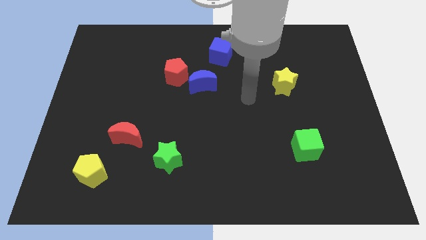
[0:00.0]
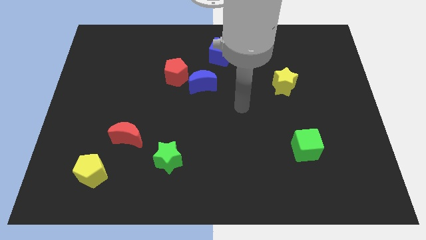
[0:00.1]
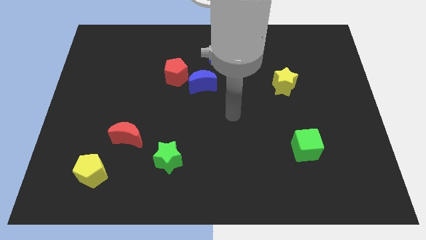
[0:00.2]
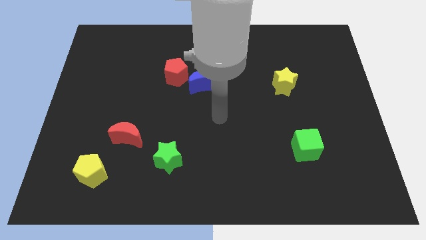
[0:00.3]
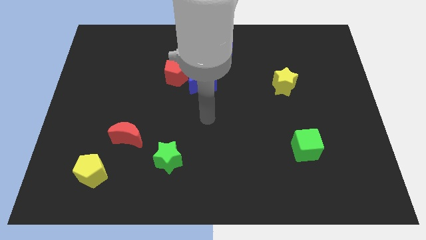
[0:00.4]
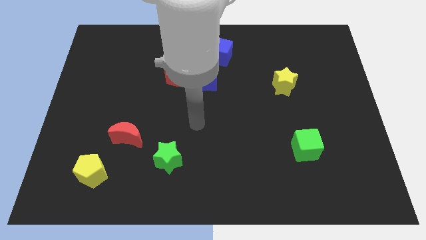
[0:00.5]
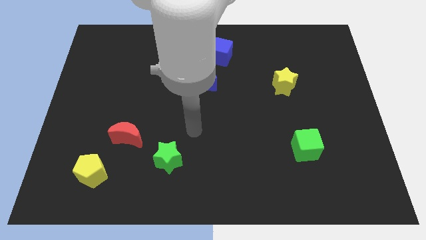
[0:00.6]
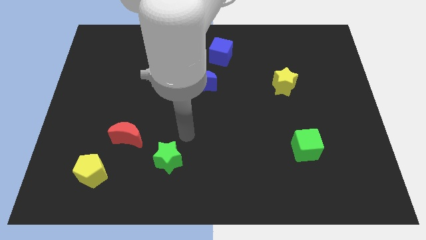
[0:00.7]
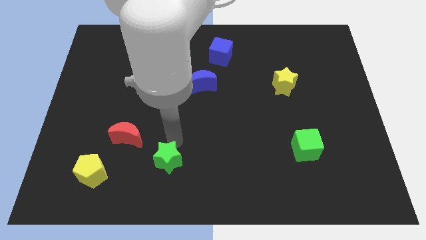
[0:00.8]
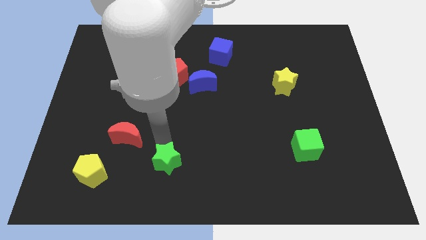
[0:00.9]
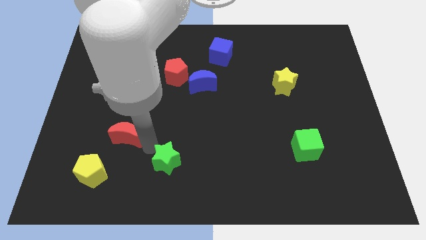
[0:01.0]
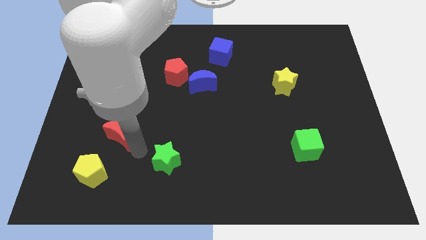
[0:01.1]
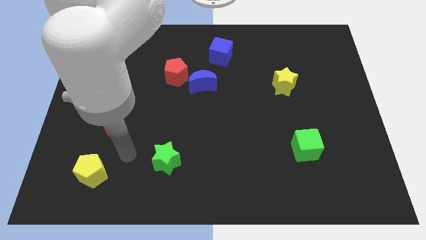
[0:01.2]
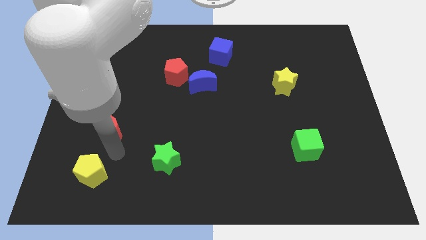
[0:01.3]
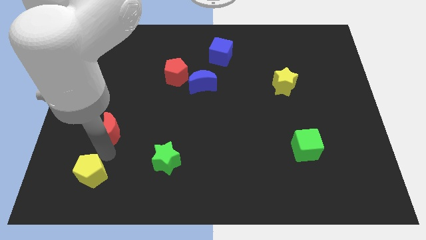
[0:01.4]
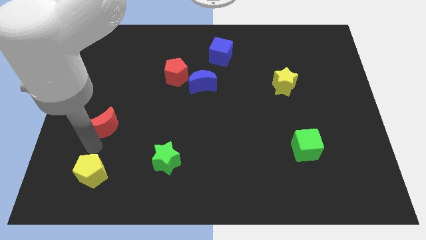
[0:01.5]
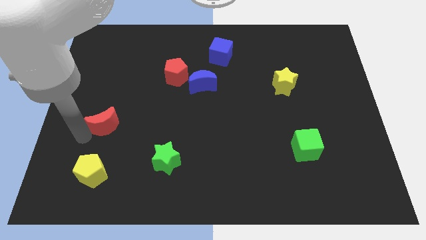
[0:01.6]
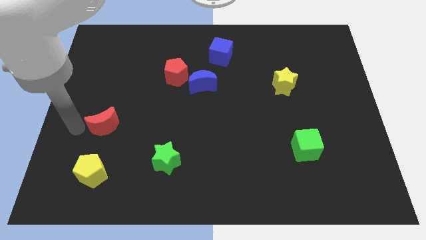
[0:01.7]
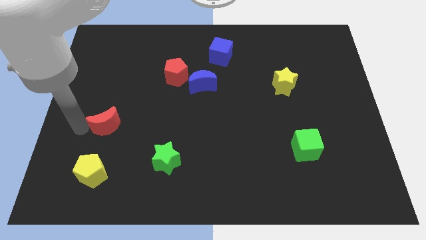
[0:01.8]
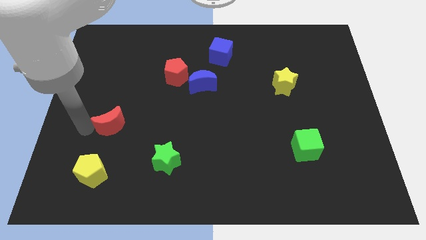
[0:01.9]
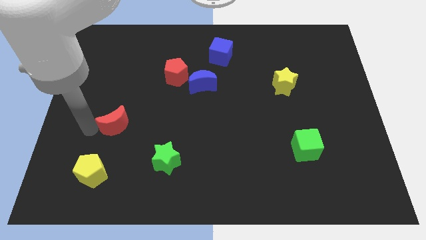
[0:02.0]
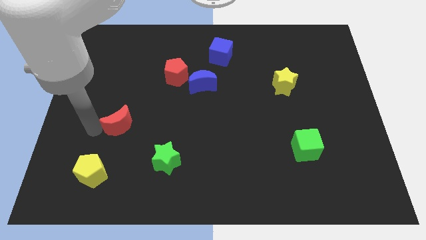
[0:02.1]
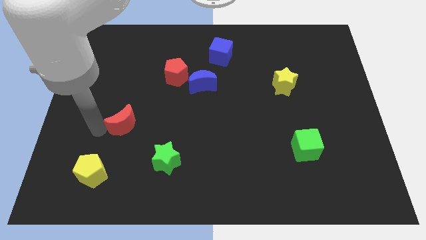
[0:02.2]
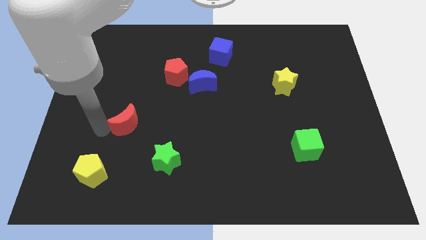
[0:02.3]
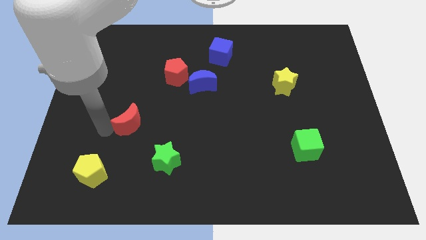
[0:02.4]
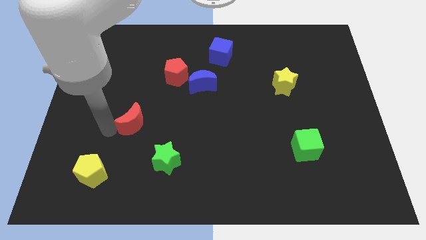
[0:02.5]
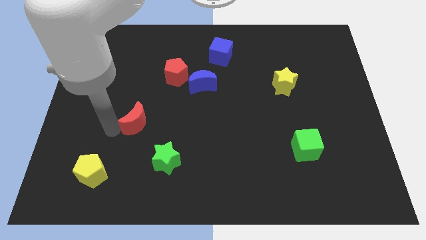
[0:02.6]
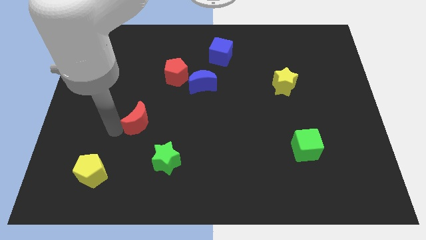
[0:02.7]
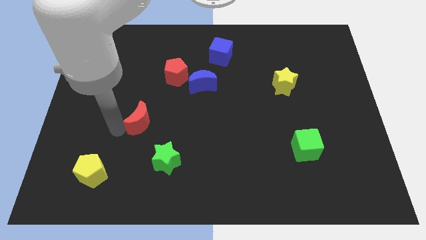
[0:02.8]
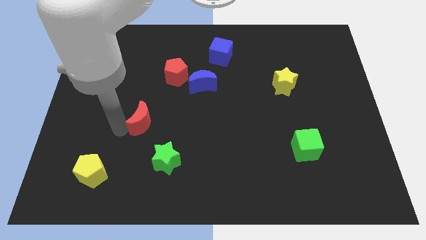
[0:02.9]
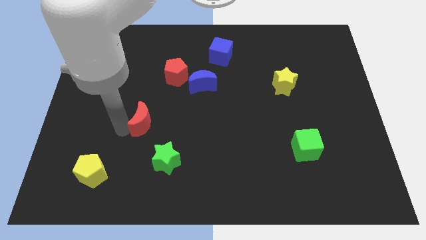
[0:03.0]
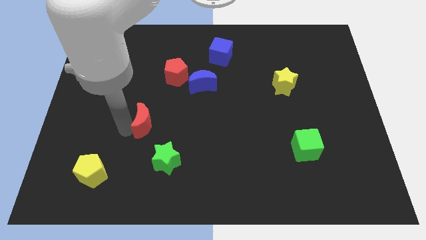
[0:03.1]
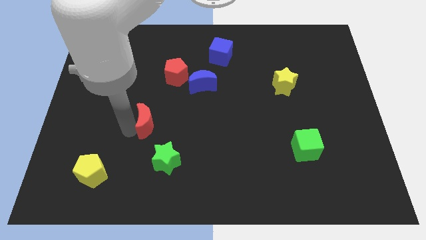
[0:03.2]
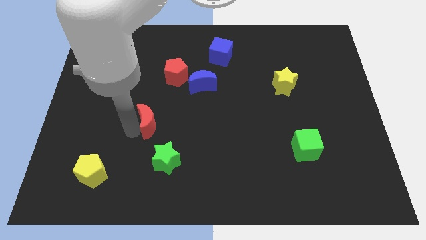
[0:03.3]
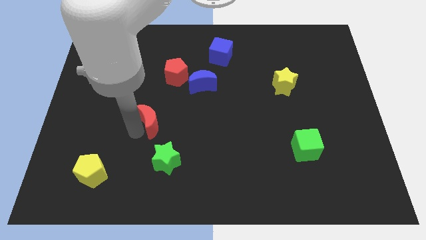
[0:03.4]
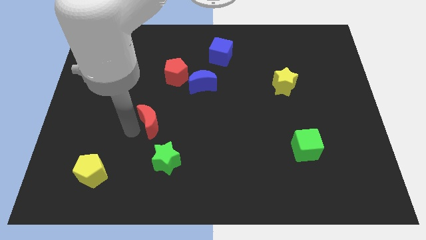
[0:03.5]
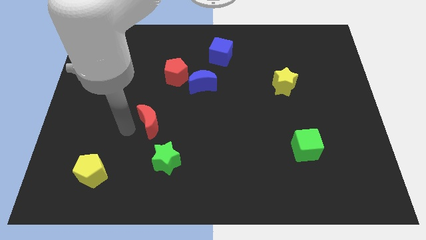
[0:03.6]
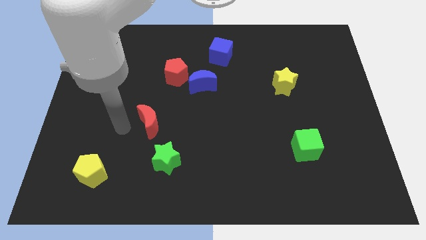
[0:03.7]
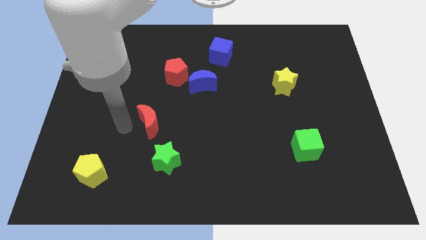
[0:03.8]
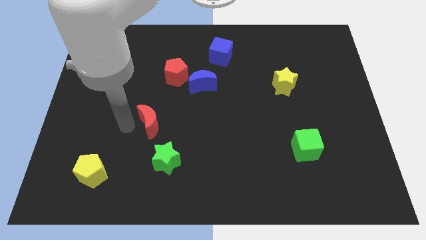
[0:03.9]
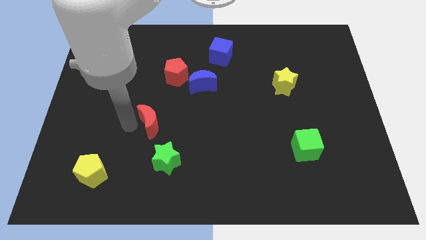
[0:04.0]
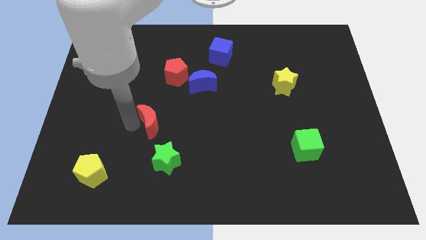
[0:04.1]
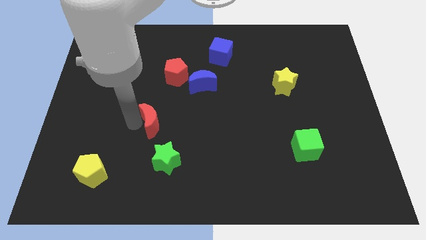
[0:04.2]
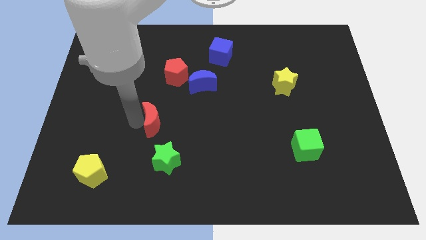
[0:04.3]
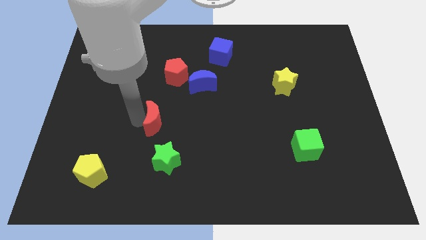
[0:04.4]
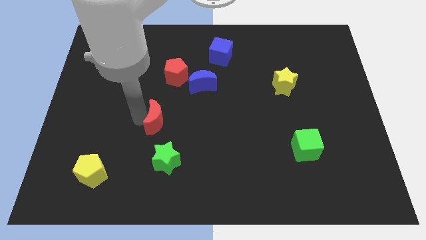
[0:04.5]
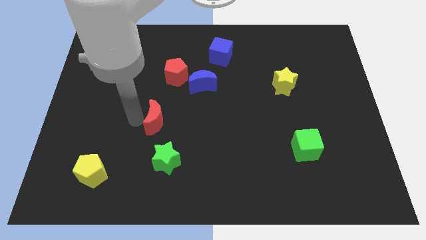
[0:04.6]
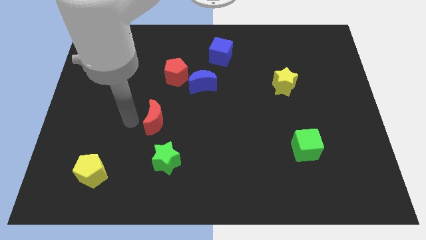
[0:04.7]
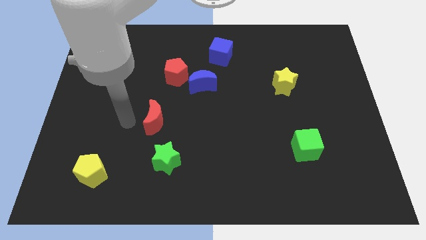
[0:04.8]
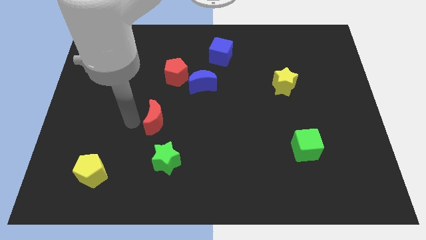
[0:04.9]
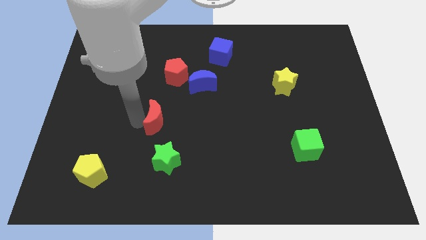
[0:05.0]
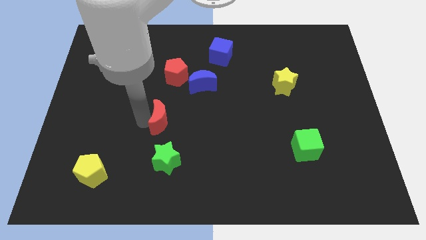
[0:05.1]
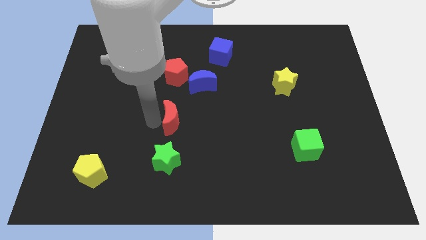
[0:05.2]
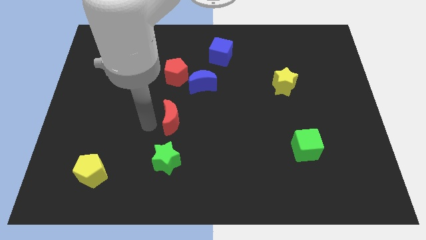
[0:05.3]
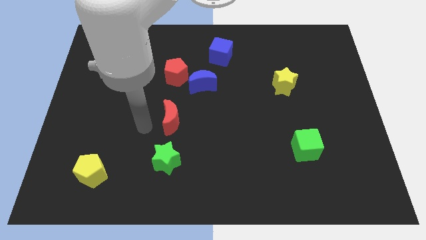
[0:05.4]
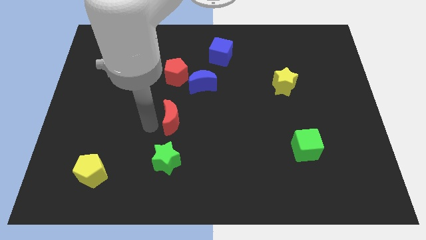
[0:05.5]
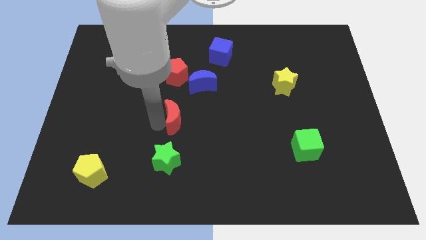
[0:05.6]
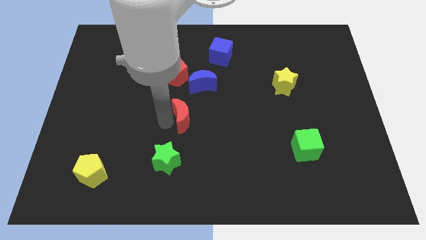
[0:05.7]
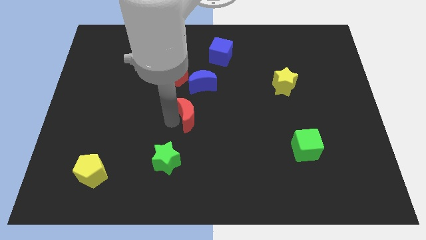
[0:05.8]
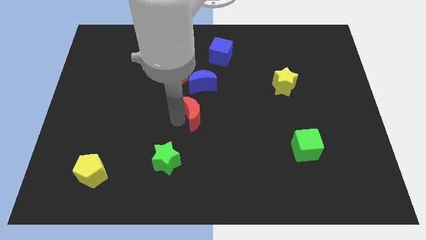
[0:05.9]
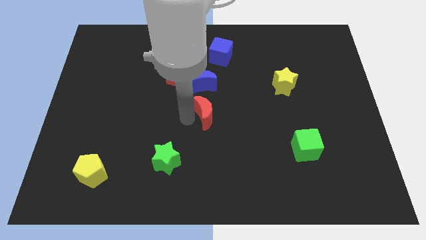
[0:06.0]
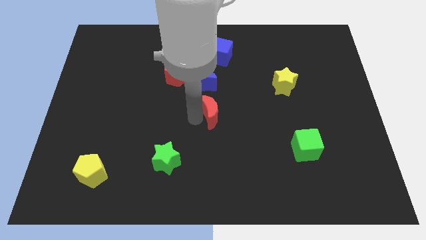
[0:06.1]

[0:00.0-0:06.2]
push the red moon diagonally down and to the right of the blue moon
